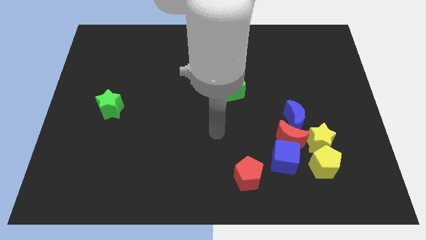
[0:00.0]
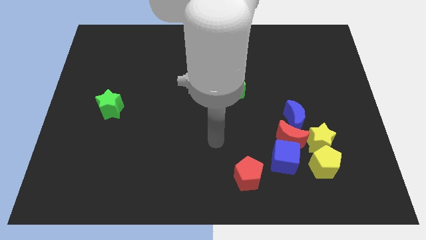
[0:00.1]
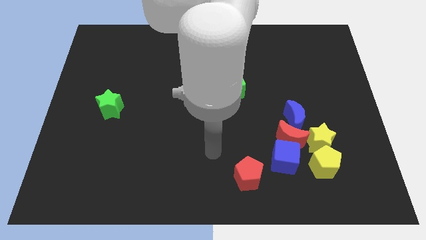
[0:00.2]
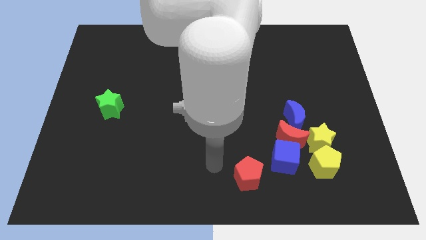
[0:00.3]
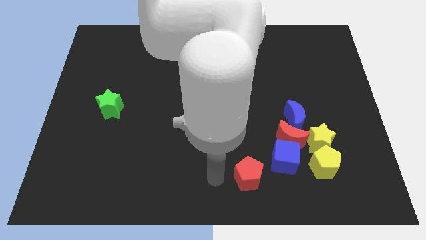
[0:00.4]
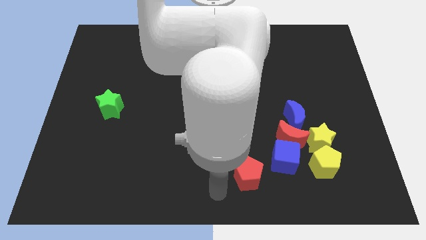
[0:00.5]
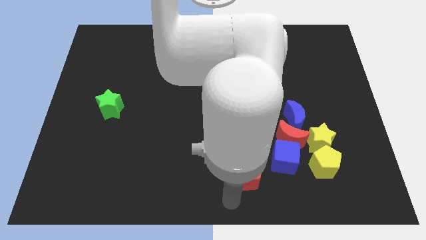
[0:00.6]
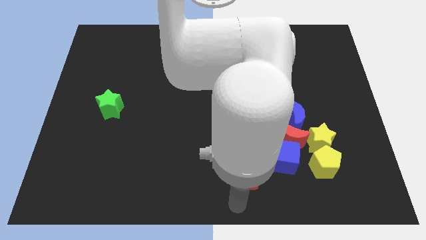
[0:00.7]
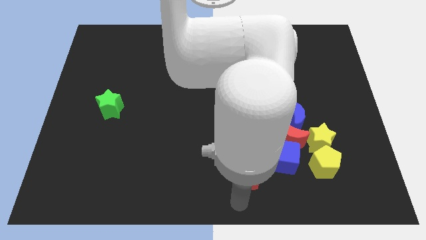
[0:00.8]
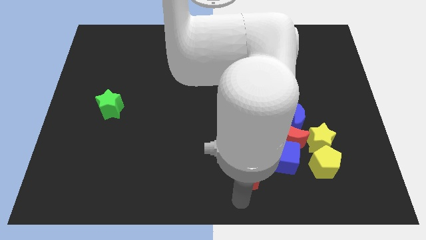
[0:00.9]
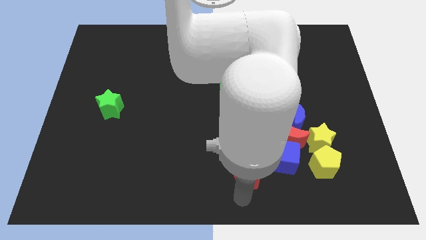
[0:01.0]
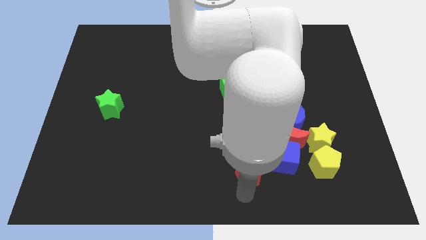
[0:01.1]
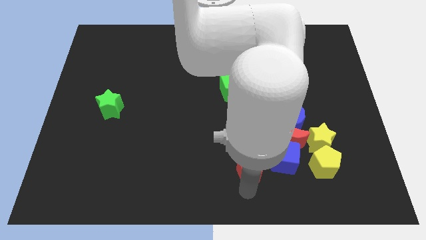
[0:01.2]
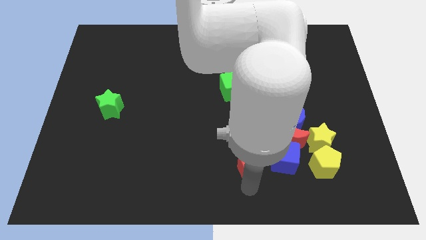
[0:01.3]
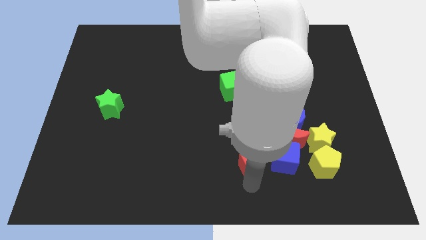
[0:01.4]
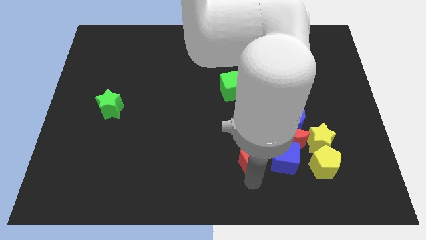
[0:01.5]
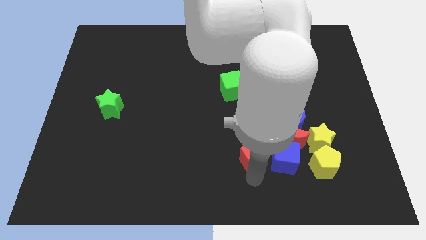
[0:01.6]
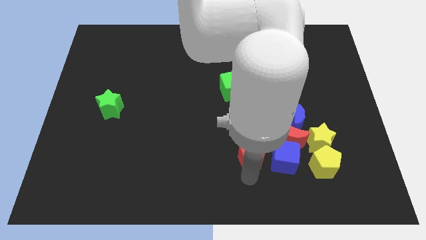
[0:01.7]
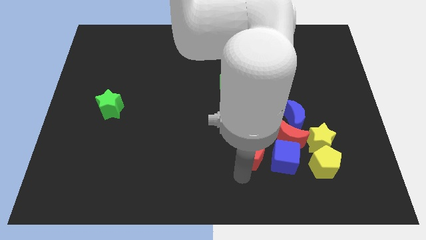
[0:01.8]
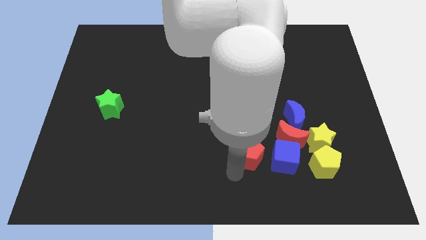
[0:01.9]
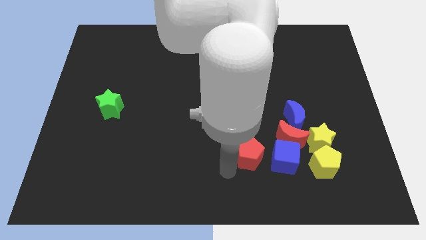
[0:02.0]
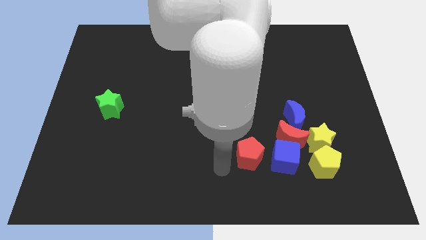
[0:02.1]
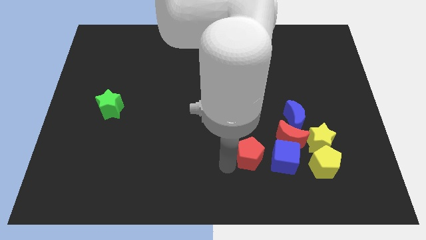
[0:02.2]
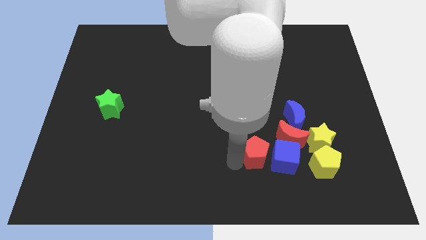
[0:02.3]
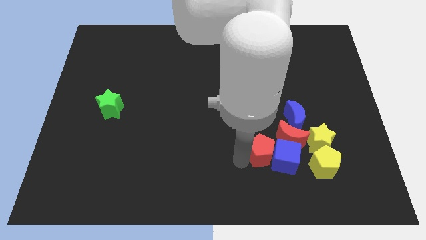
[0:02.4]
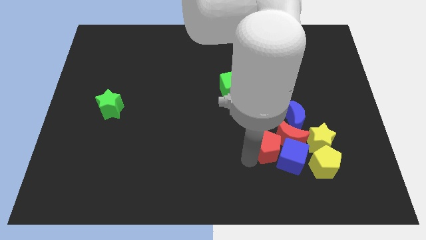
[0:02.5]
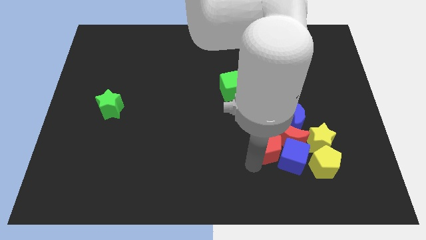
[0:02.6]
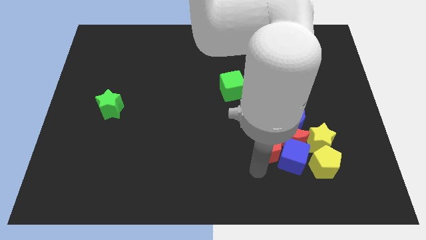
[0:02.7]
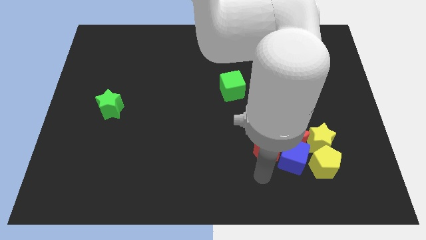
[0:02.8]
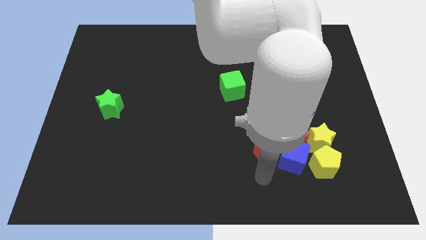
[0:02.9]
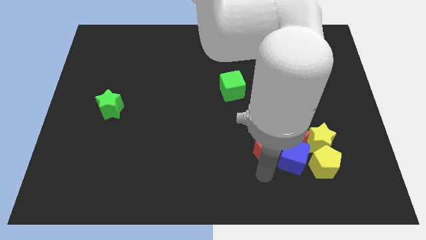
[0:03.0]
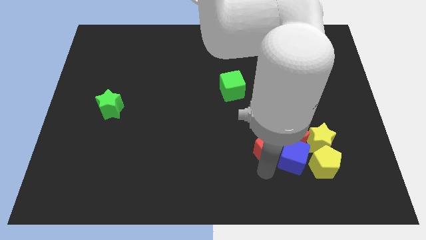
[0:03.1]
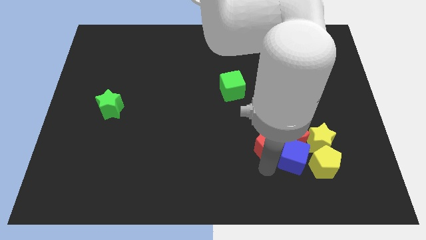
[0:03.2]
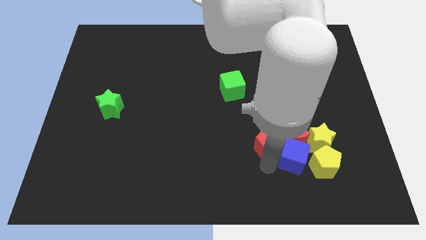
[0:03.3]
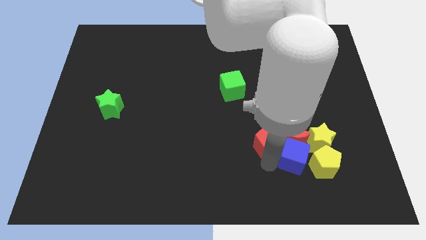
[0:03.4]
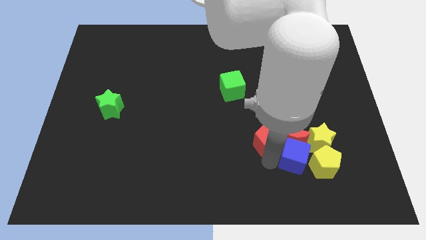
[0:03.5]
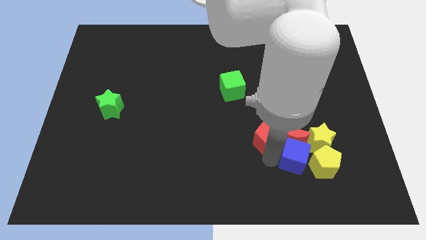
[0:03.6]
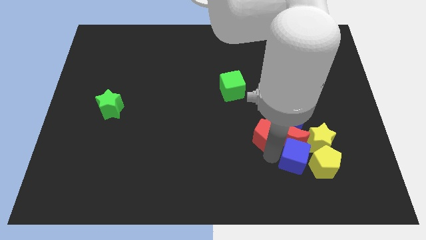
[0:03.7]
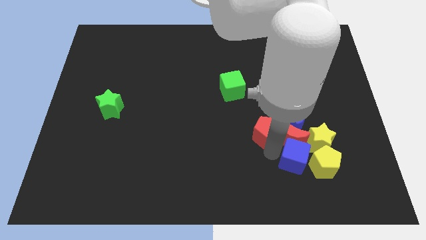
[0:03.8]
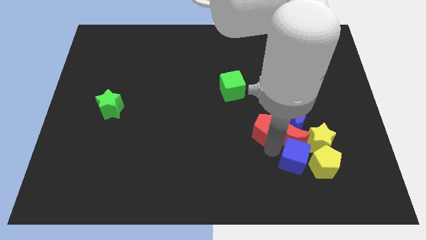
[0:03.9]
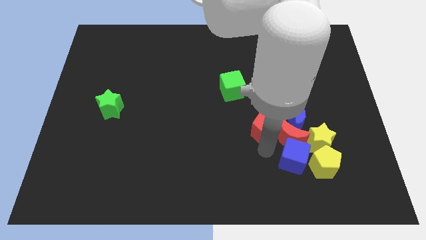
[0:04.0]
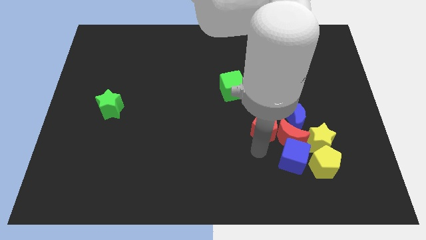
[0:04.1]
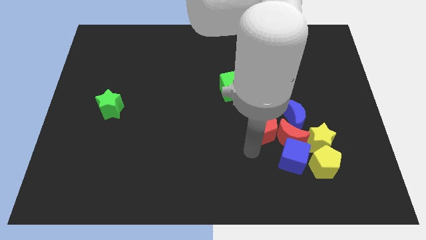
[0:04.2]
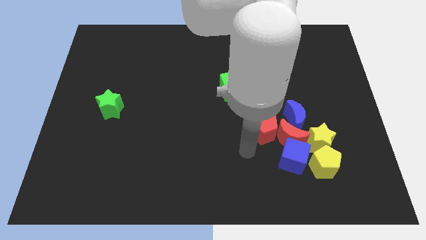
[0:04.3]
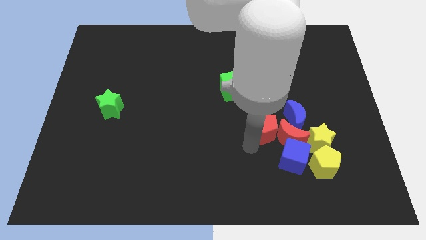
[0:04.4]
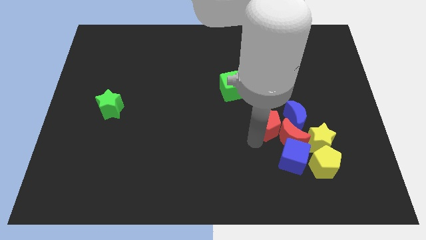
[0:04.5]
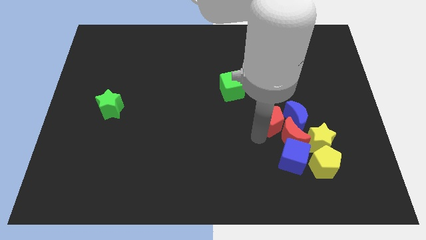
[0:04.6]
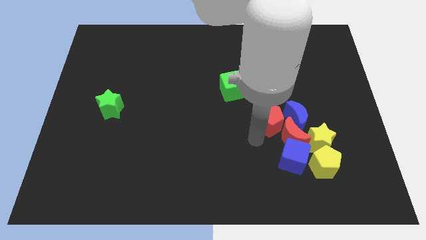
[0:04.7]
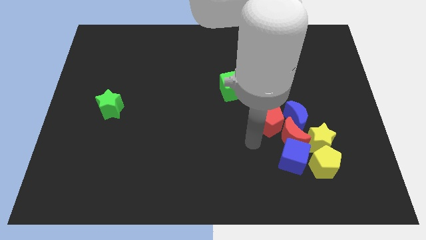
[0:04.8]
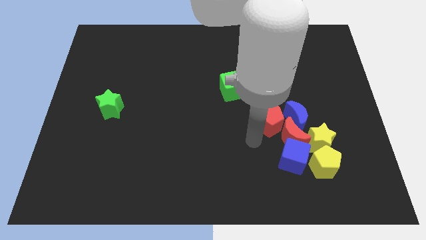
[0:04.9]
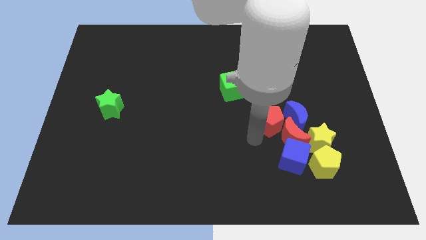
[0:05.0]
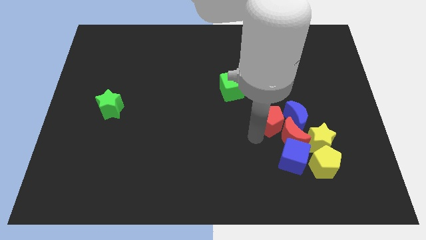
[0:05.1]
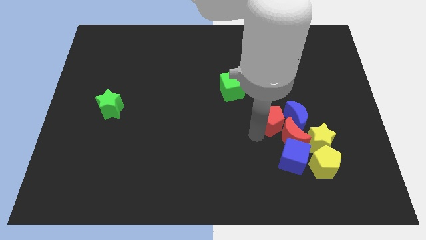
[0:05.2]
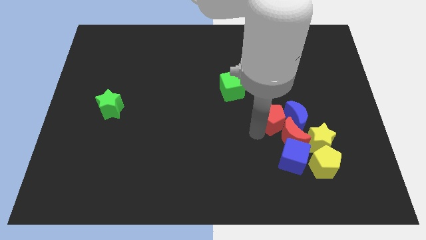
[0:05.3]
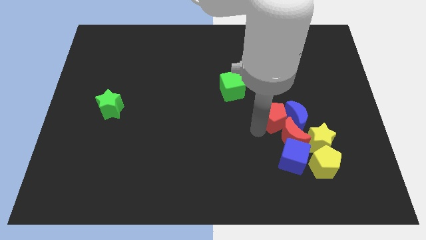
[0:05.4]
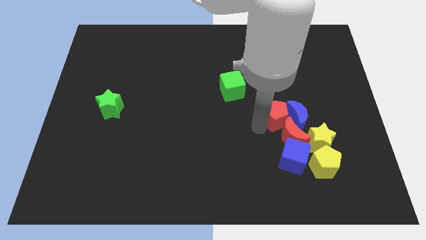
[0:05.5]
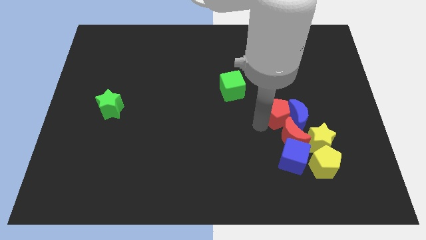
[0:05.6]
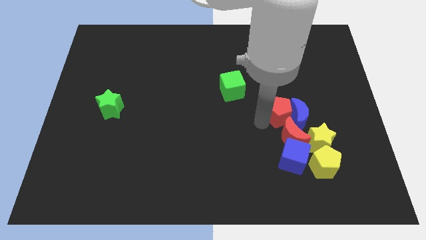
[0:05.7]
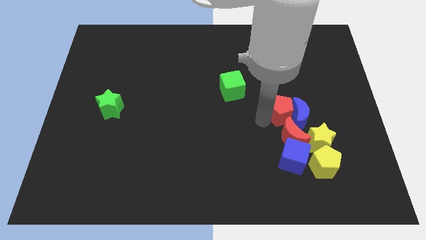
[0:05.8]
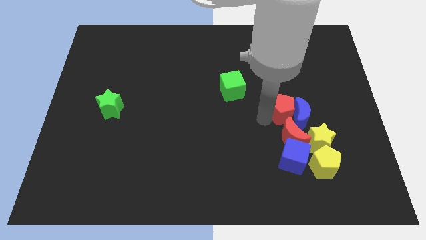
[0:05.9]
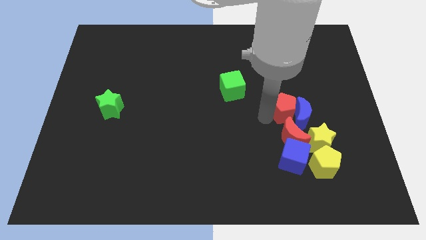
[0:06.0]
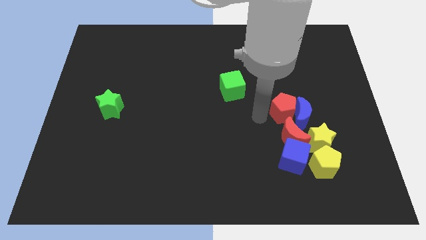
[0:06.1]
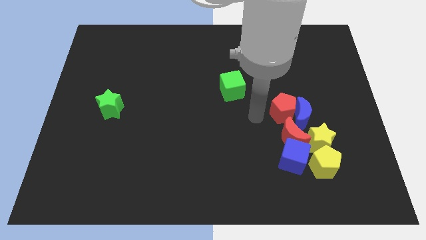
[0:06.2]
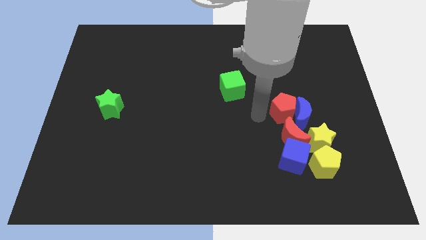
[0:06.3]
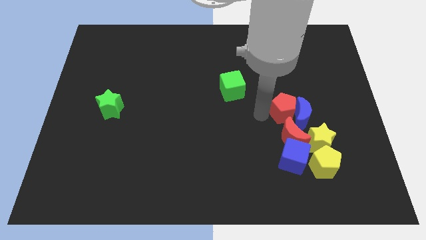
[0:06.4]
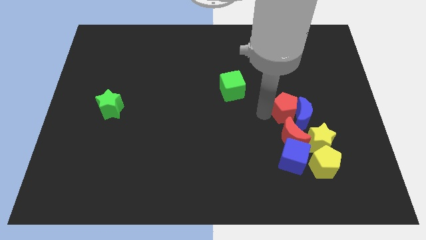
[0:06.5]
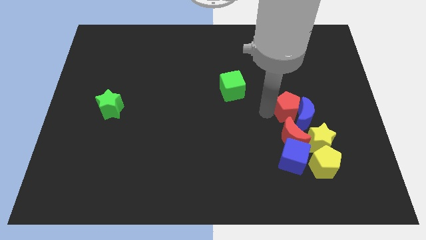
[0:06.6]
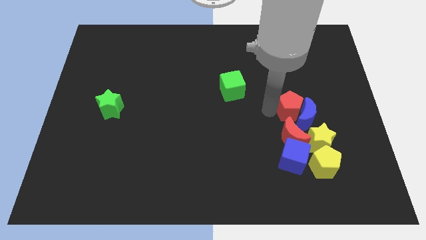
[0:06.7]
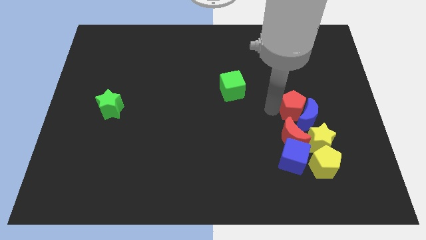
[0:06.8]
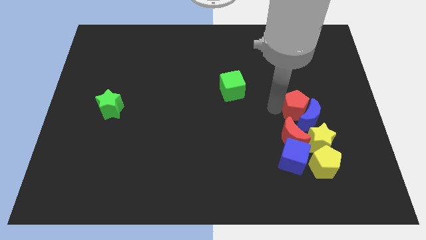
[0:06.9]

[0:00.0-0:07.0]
put the red pentagon to the top side of the yellow star
